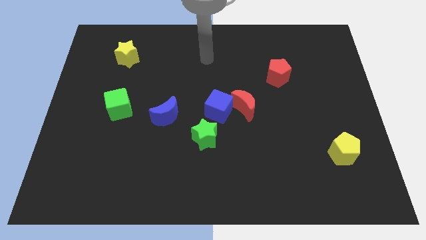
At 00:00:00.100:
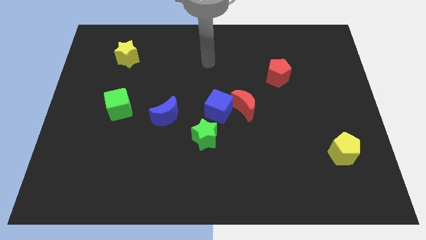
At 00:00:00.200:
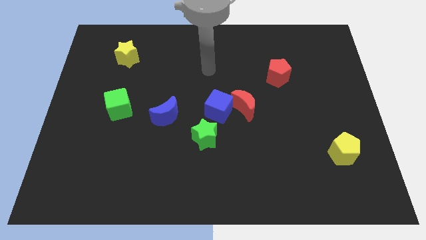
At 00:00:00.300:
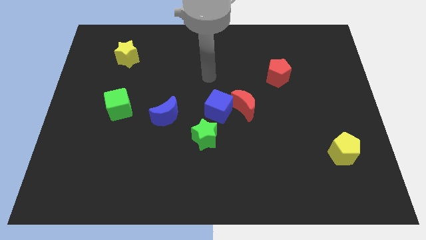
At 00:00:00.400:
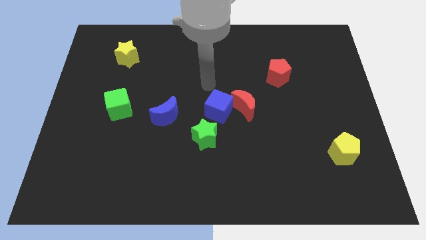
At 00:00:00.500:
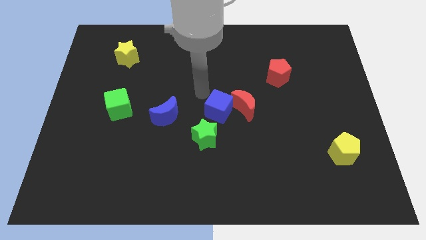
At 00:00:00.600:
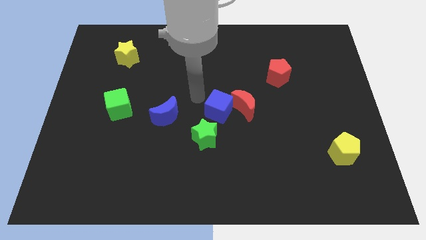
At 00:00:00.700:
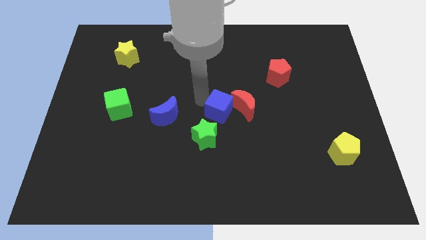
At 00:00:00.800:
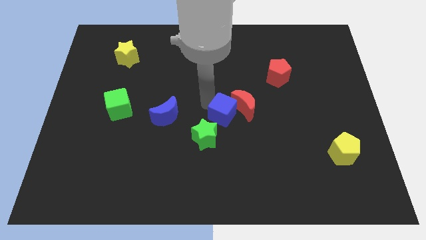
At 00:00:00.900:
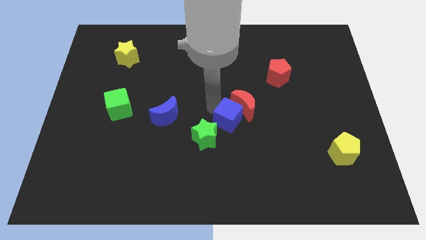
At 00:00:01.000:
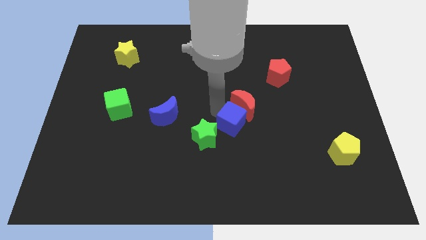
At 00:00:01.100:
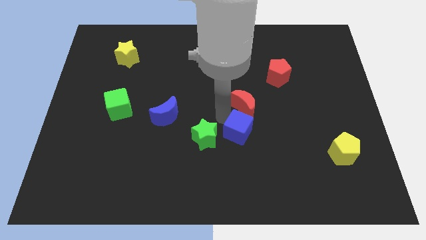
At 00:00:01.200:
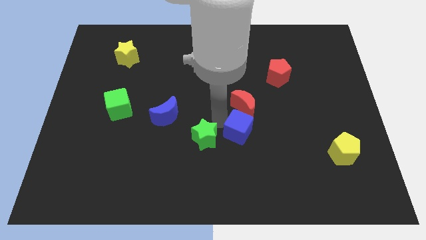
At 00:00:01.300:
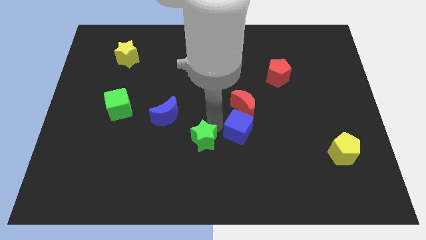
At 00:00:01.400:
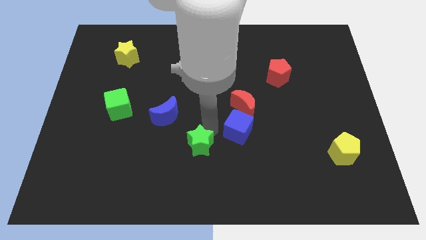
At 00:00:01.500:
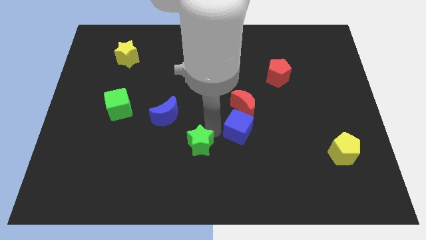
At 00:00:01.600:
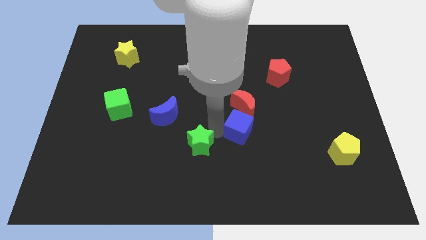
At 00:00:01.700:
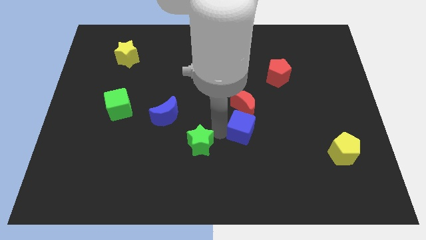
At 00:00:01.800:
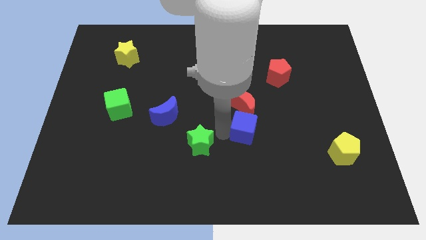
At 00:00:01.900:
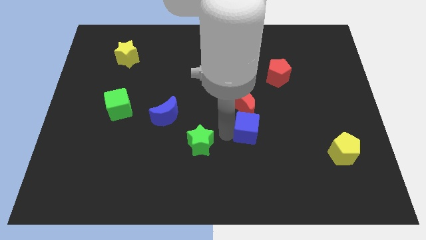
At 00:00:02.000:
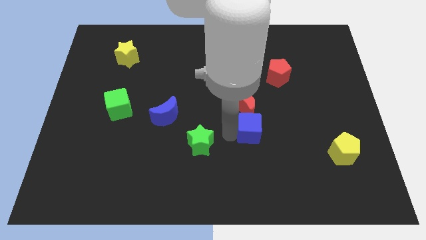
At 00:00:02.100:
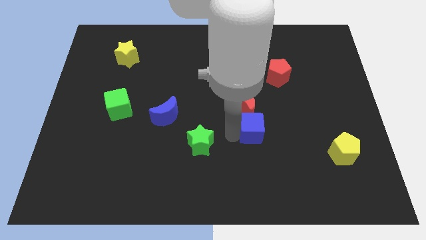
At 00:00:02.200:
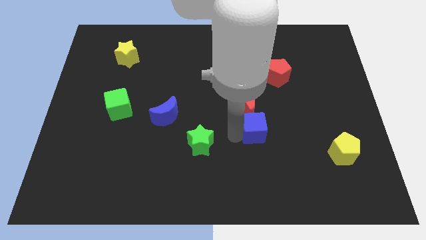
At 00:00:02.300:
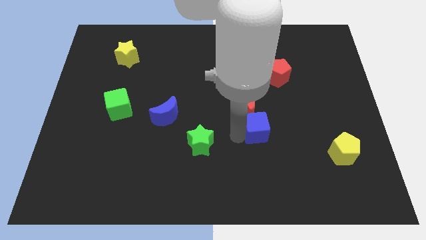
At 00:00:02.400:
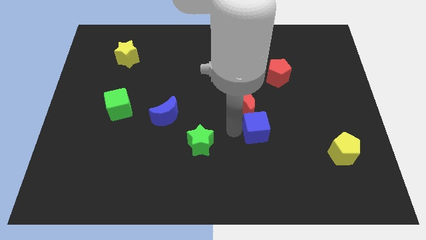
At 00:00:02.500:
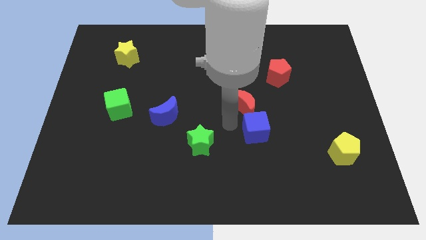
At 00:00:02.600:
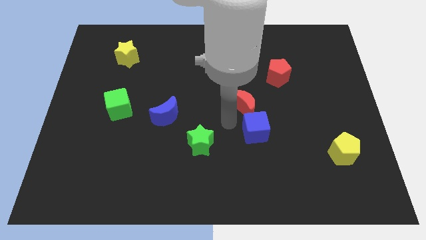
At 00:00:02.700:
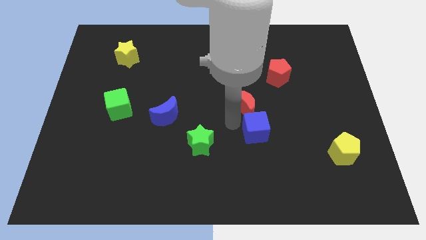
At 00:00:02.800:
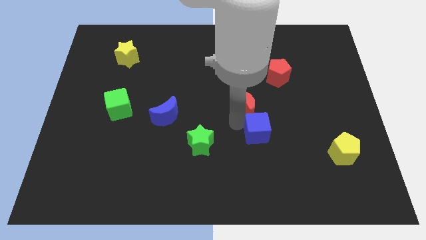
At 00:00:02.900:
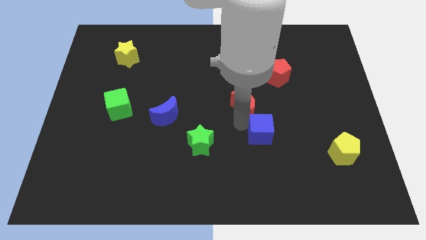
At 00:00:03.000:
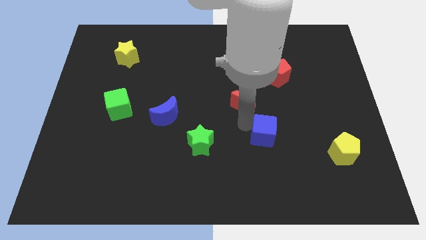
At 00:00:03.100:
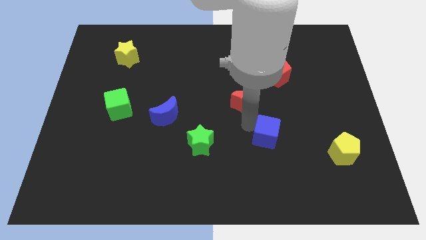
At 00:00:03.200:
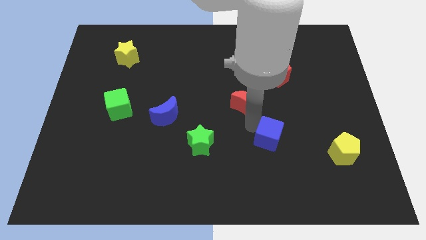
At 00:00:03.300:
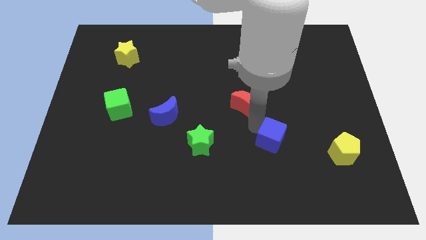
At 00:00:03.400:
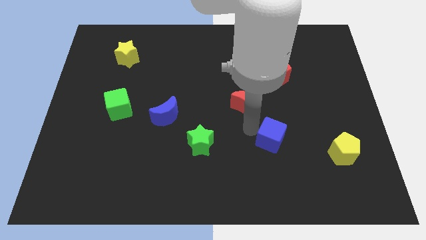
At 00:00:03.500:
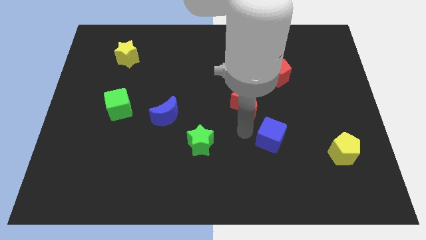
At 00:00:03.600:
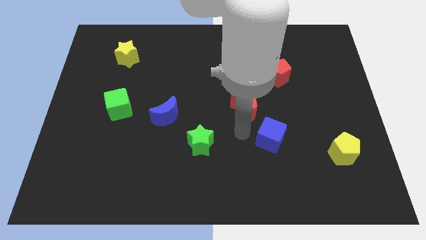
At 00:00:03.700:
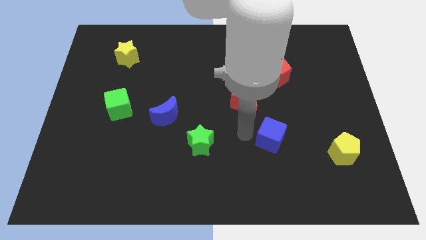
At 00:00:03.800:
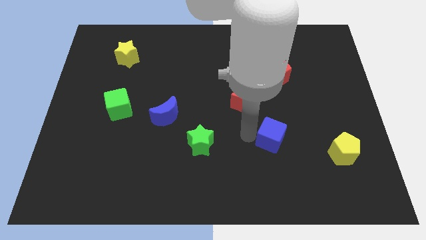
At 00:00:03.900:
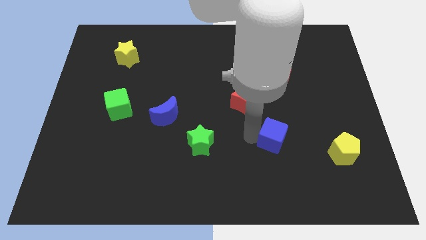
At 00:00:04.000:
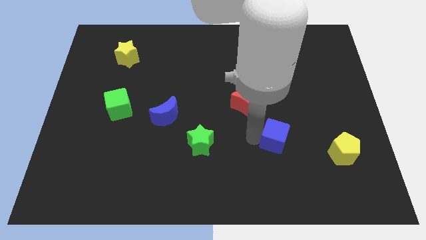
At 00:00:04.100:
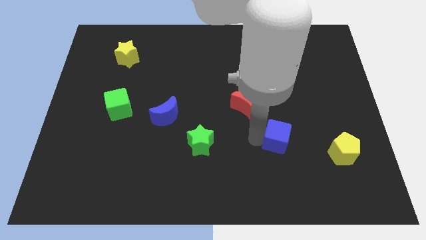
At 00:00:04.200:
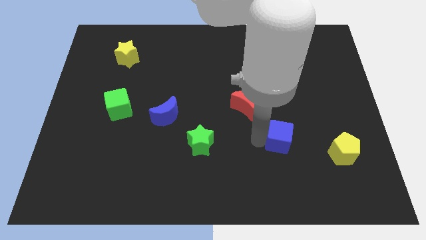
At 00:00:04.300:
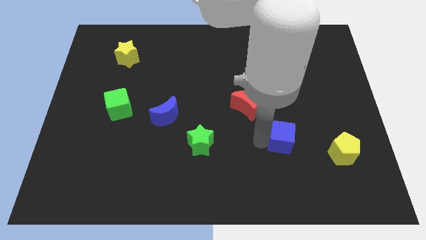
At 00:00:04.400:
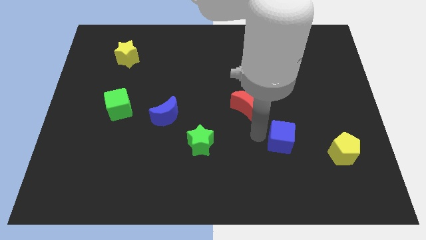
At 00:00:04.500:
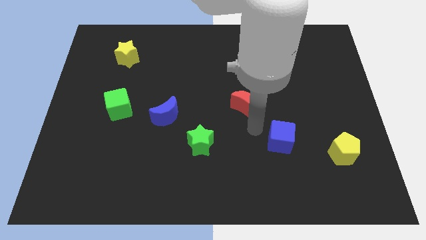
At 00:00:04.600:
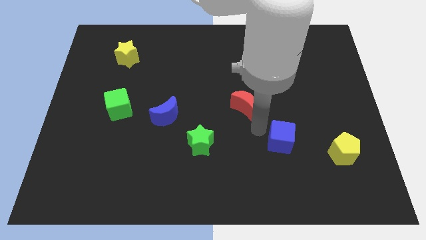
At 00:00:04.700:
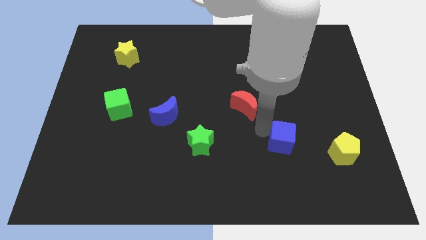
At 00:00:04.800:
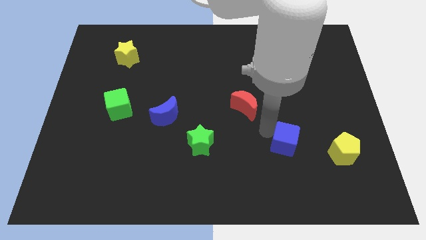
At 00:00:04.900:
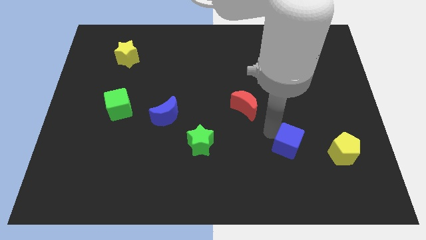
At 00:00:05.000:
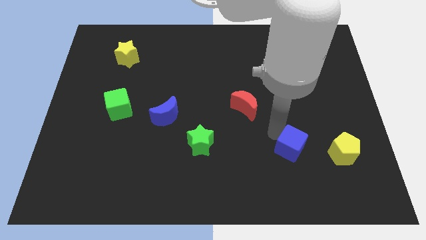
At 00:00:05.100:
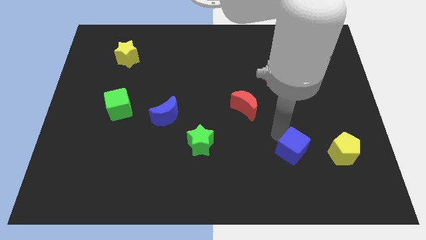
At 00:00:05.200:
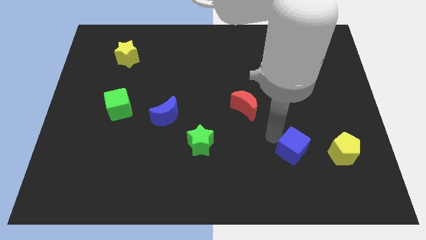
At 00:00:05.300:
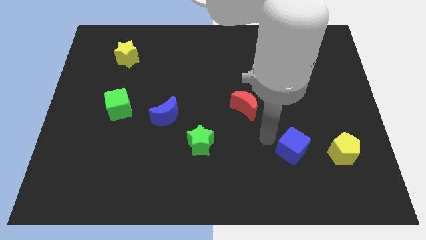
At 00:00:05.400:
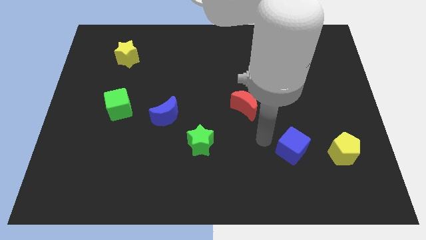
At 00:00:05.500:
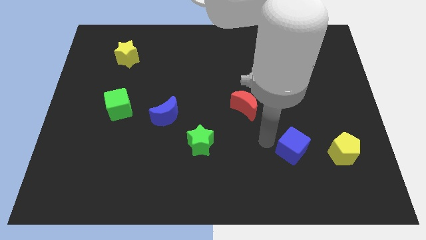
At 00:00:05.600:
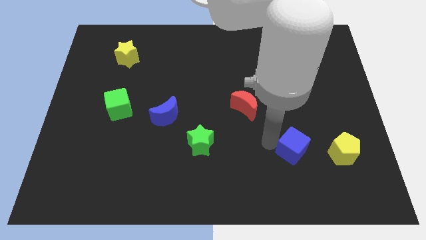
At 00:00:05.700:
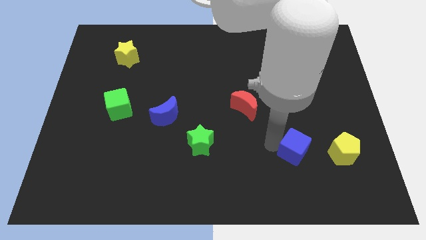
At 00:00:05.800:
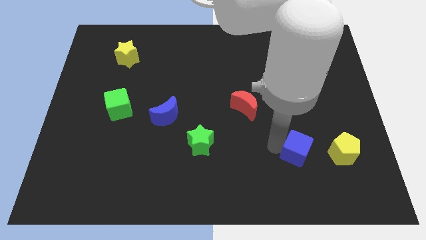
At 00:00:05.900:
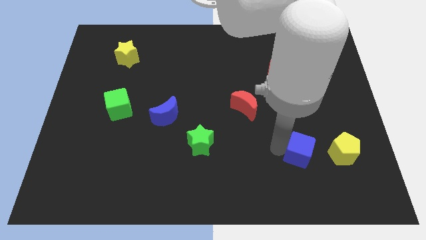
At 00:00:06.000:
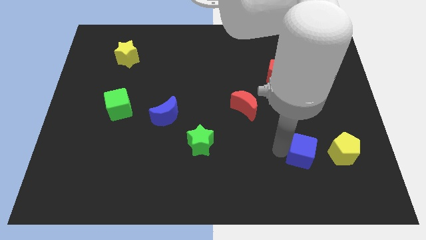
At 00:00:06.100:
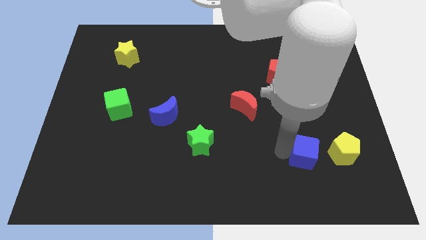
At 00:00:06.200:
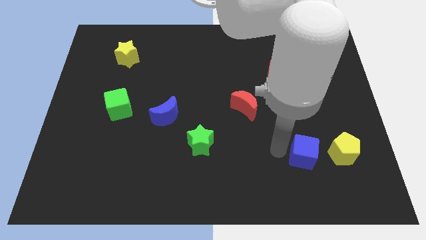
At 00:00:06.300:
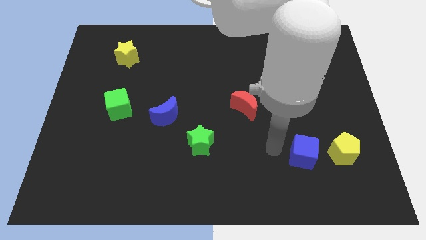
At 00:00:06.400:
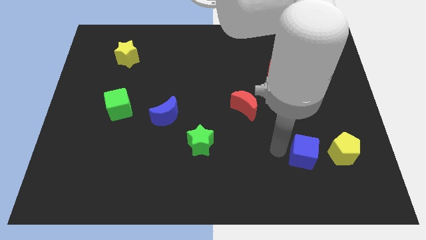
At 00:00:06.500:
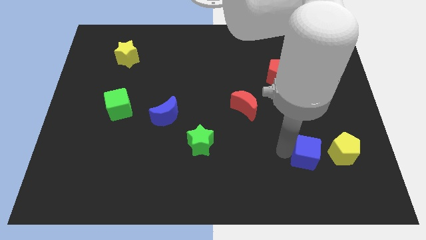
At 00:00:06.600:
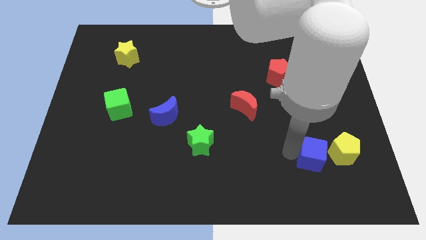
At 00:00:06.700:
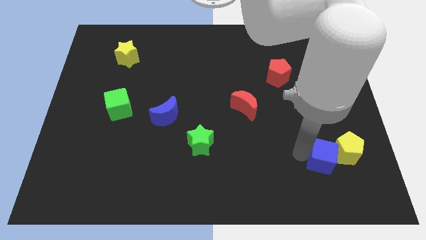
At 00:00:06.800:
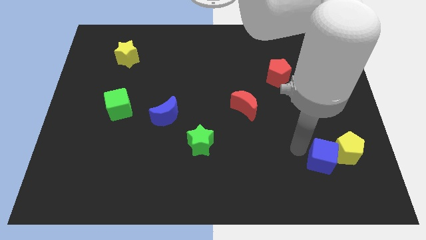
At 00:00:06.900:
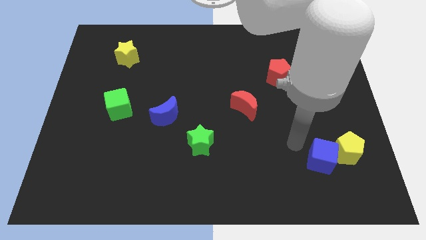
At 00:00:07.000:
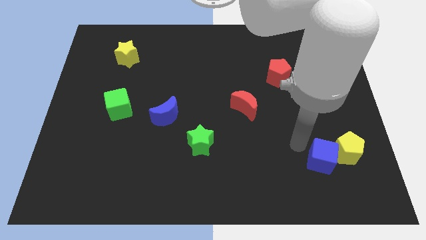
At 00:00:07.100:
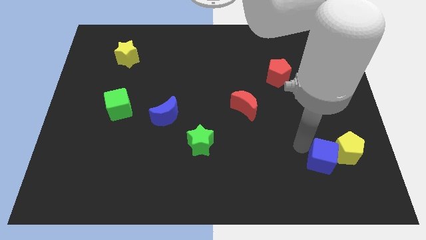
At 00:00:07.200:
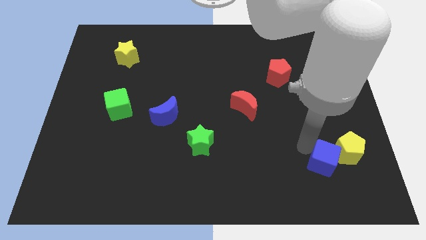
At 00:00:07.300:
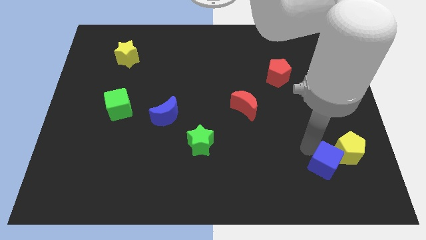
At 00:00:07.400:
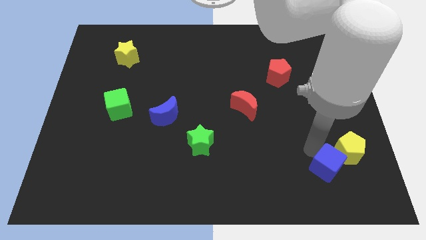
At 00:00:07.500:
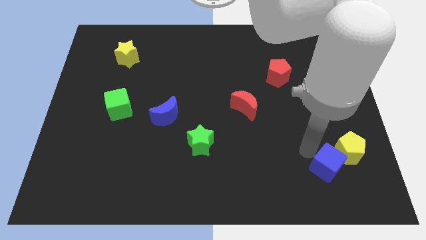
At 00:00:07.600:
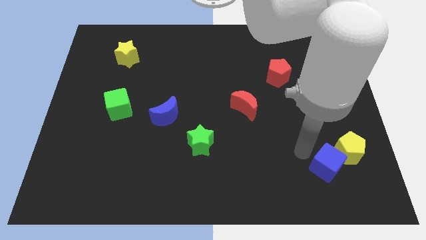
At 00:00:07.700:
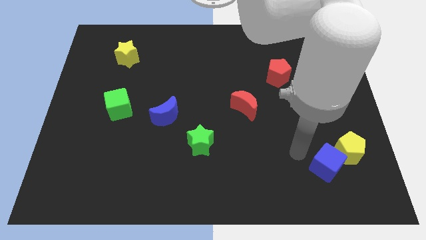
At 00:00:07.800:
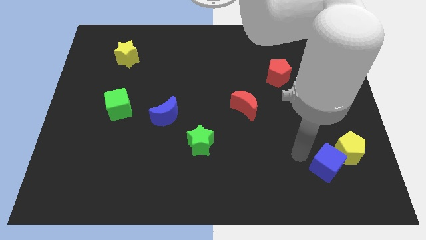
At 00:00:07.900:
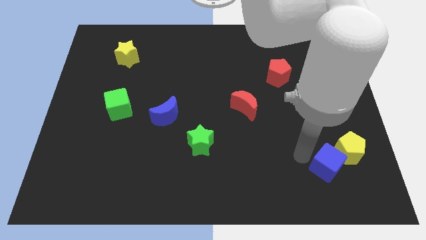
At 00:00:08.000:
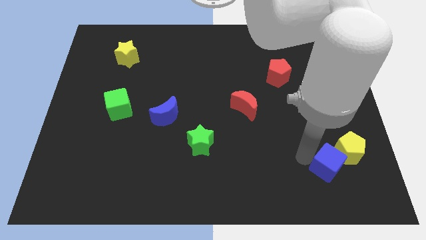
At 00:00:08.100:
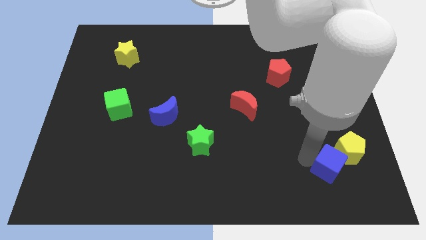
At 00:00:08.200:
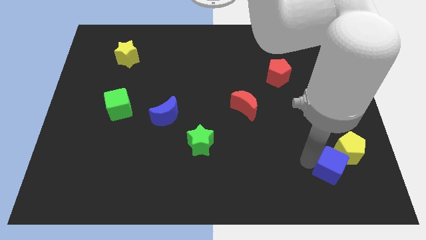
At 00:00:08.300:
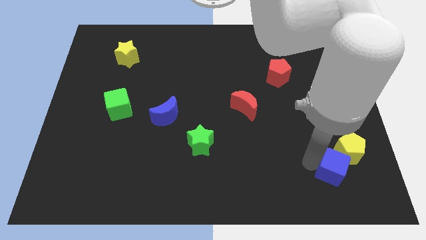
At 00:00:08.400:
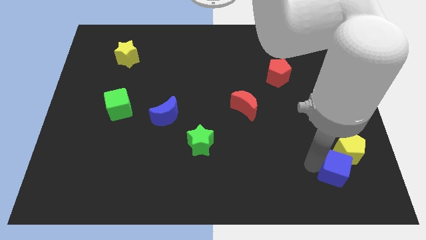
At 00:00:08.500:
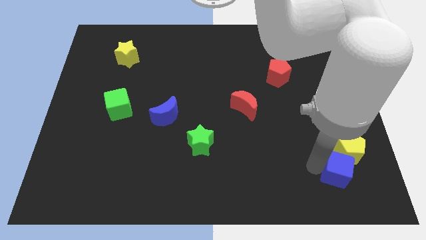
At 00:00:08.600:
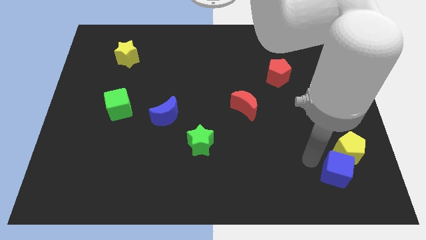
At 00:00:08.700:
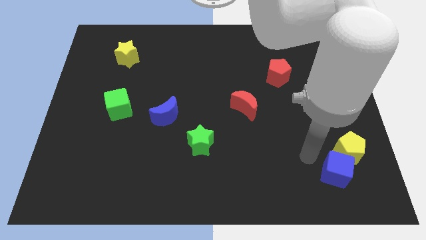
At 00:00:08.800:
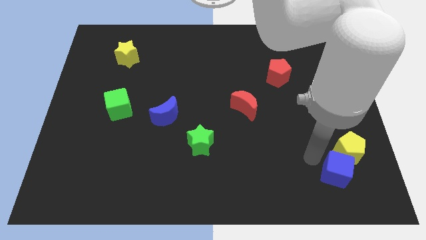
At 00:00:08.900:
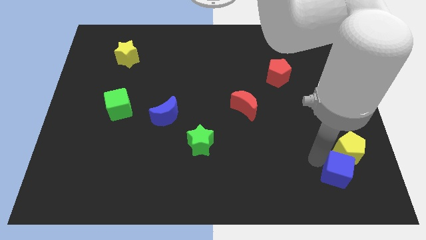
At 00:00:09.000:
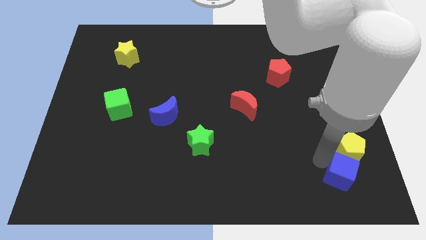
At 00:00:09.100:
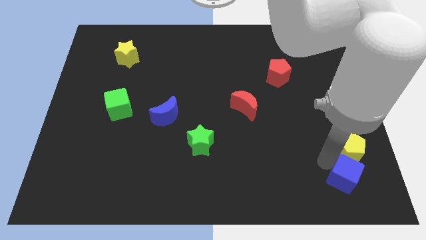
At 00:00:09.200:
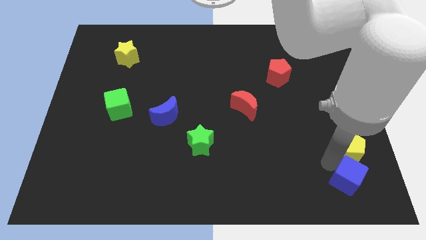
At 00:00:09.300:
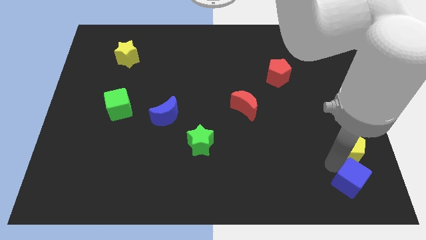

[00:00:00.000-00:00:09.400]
put the blue cube to the bottom right of the board
